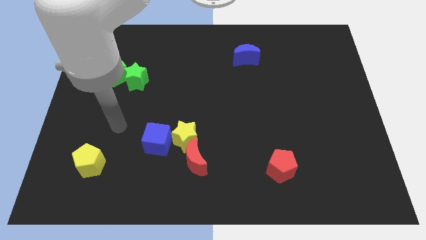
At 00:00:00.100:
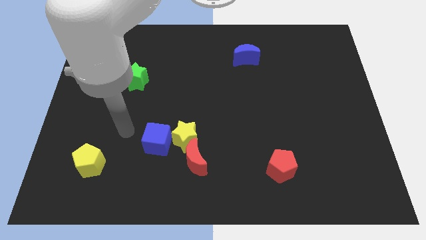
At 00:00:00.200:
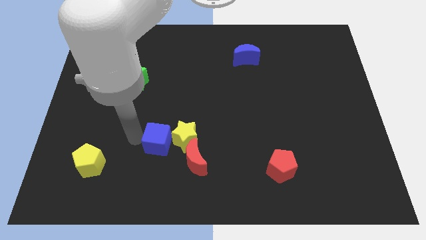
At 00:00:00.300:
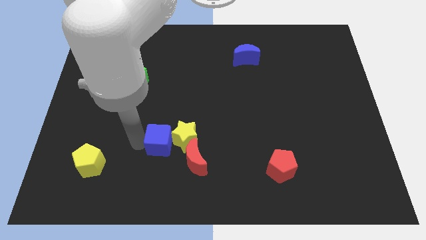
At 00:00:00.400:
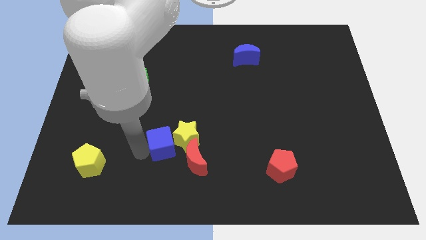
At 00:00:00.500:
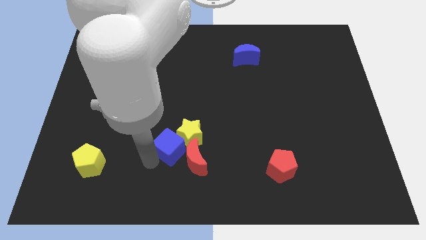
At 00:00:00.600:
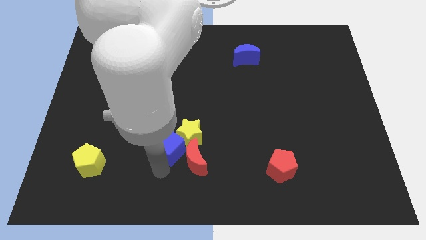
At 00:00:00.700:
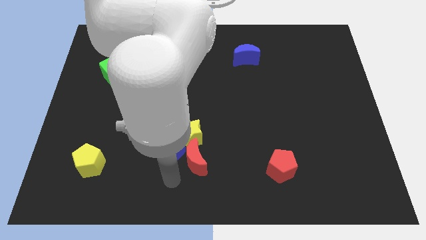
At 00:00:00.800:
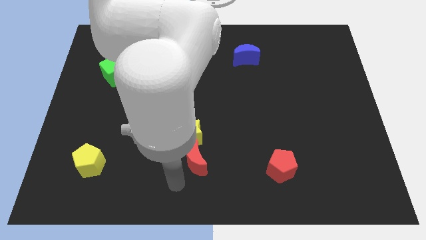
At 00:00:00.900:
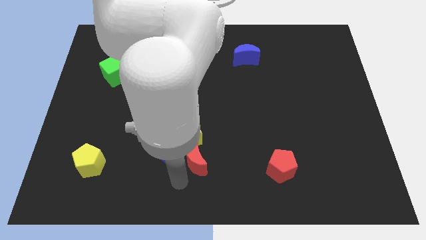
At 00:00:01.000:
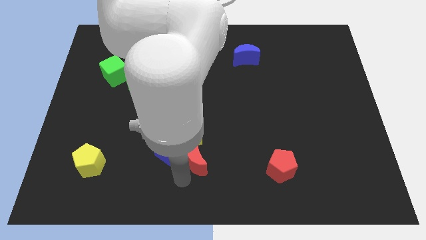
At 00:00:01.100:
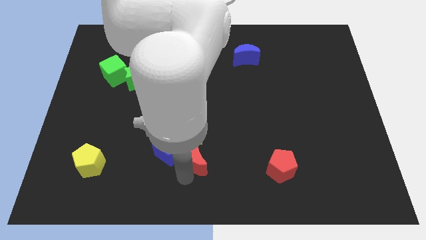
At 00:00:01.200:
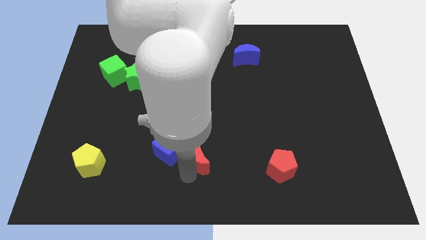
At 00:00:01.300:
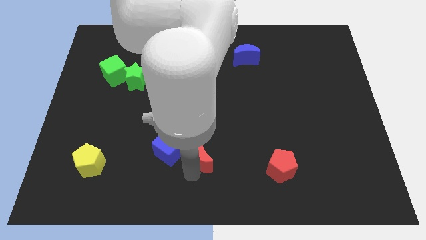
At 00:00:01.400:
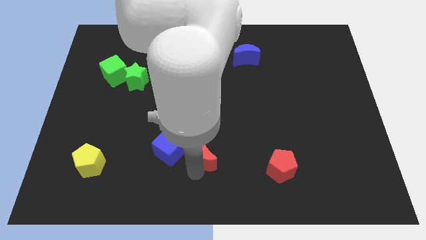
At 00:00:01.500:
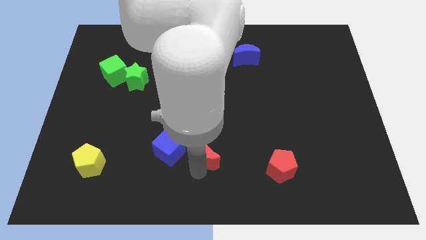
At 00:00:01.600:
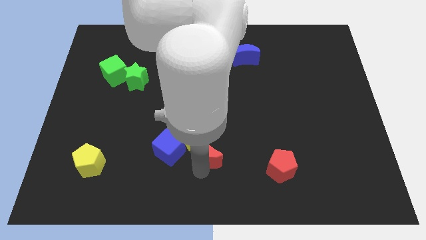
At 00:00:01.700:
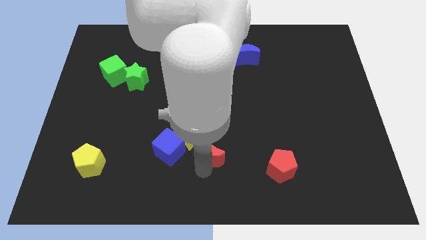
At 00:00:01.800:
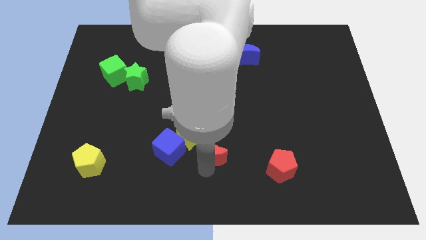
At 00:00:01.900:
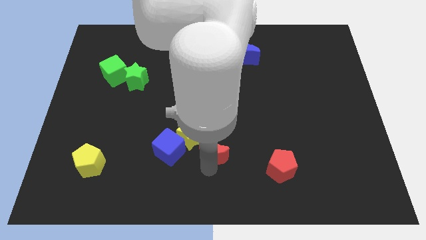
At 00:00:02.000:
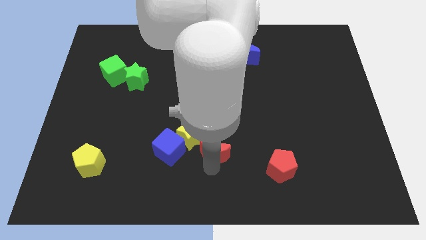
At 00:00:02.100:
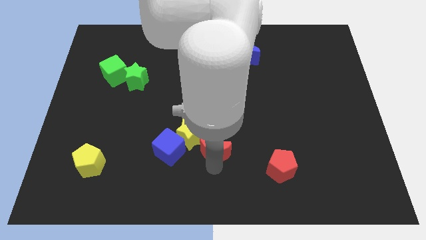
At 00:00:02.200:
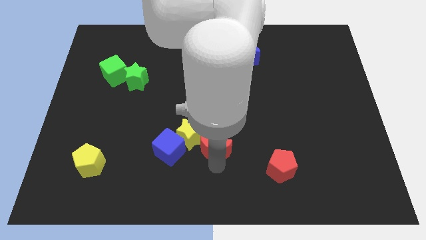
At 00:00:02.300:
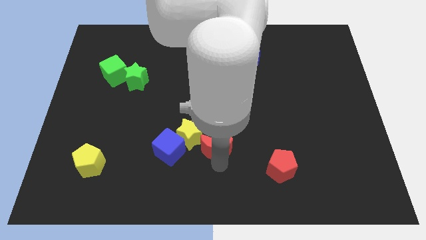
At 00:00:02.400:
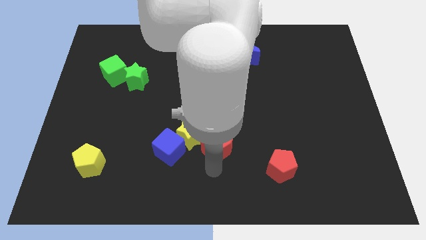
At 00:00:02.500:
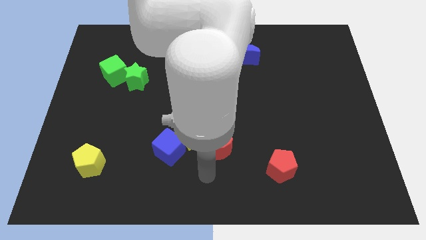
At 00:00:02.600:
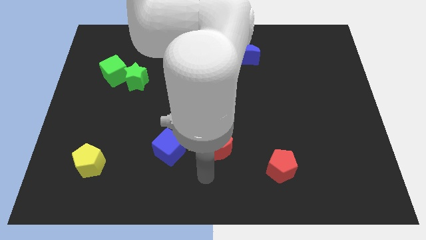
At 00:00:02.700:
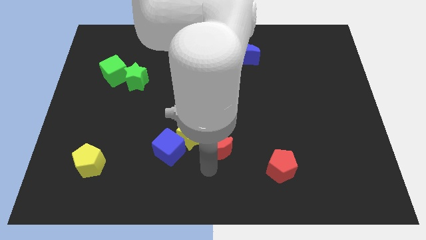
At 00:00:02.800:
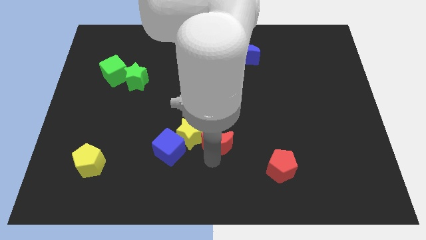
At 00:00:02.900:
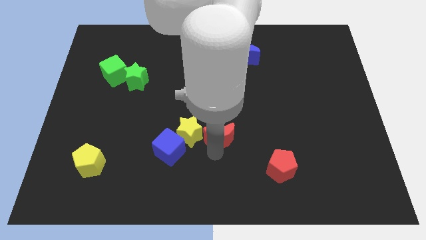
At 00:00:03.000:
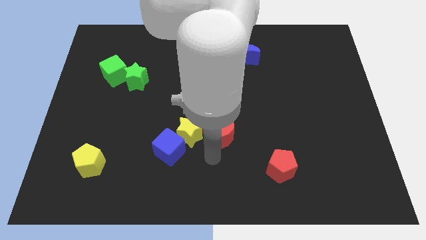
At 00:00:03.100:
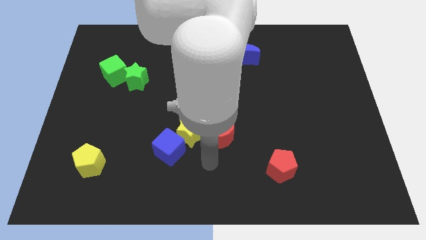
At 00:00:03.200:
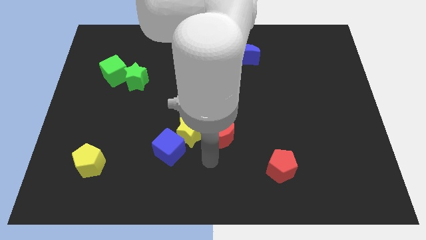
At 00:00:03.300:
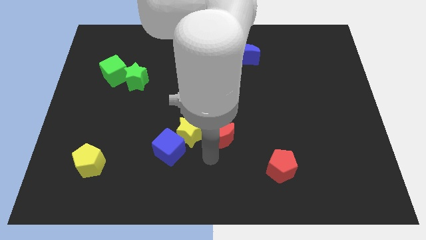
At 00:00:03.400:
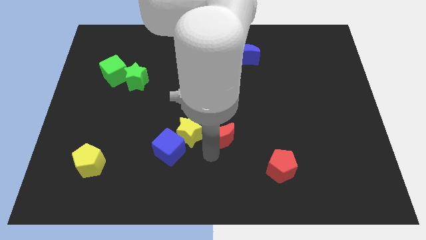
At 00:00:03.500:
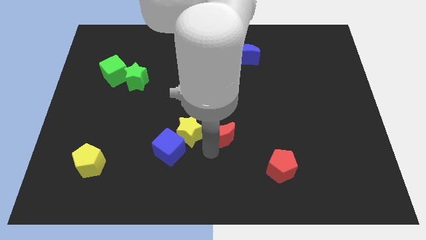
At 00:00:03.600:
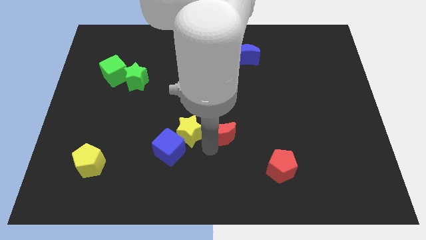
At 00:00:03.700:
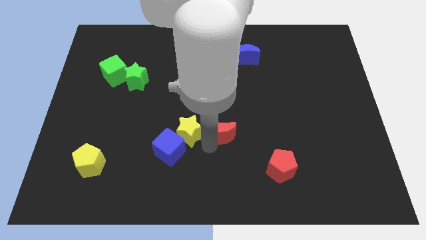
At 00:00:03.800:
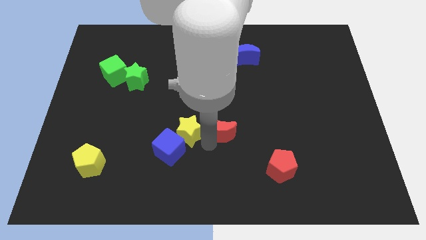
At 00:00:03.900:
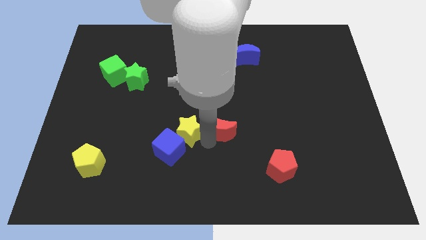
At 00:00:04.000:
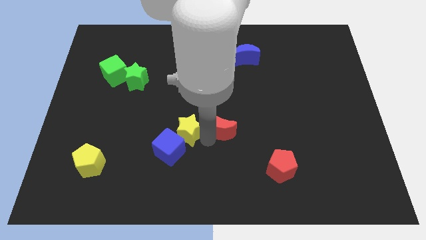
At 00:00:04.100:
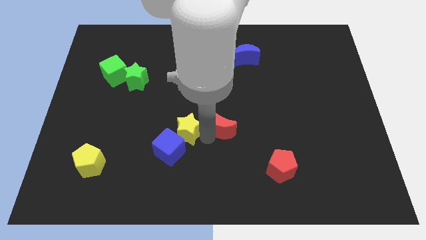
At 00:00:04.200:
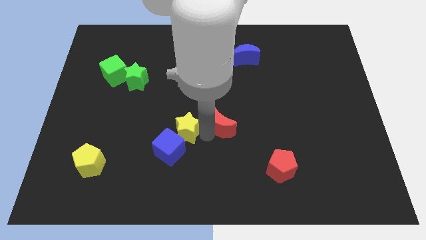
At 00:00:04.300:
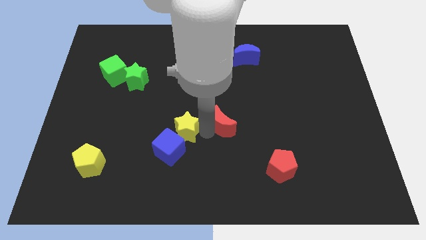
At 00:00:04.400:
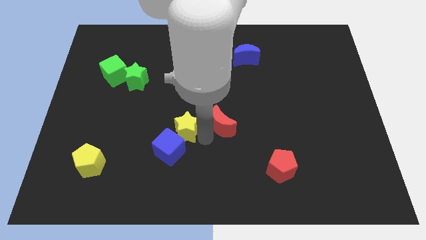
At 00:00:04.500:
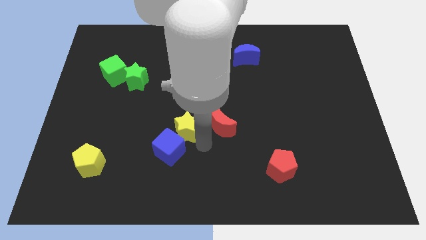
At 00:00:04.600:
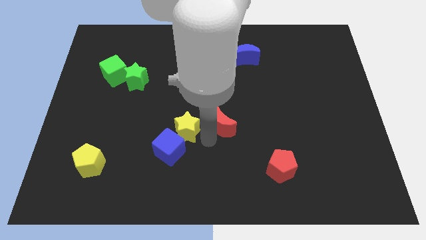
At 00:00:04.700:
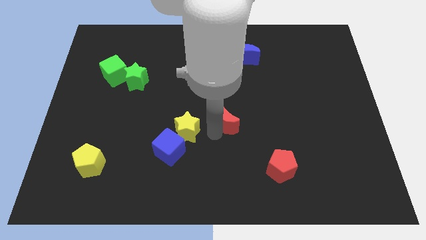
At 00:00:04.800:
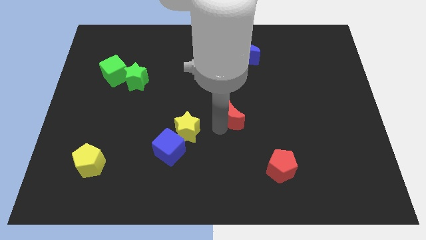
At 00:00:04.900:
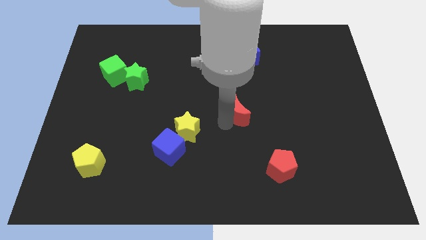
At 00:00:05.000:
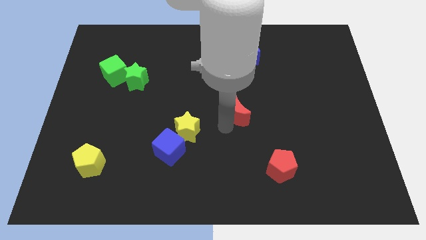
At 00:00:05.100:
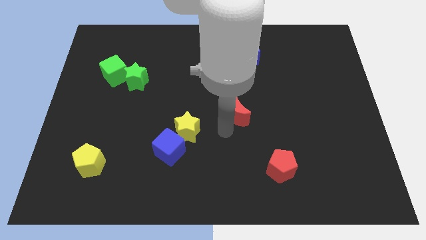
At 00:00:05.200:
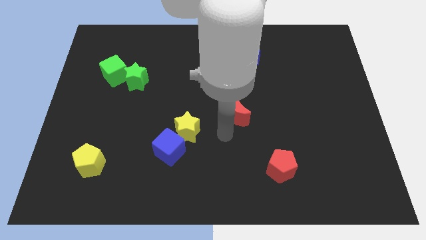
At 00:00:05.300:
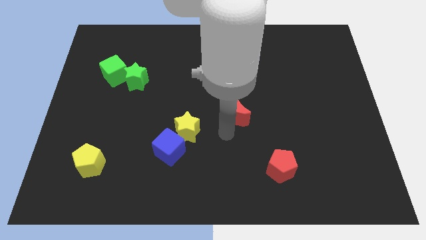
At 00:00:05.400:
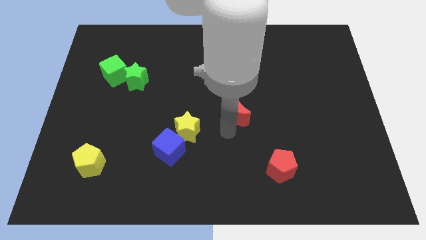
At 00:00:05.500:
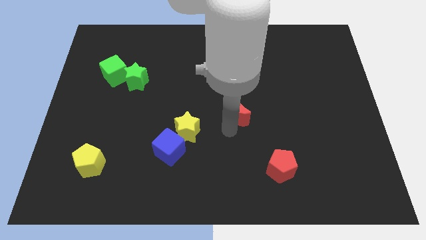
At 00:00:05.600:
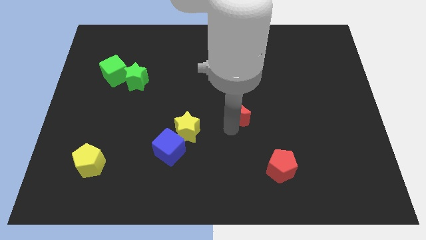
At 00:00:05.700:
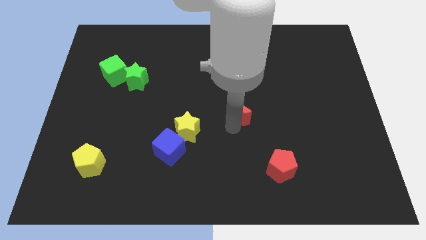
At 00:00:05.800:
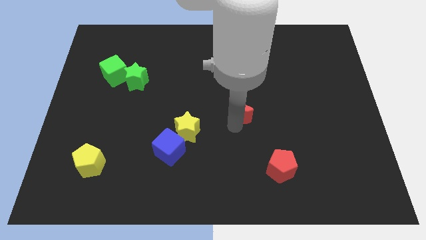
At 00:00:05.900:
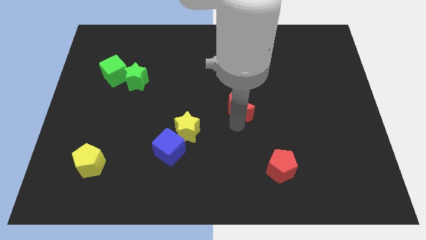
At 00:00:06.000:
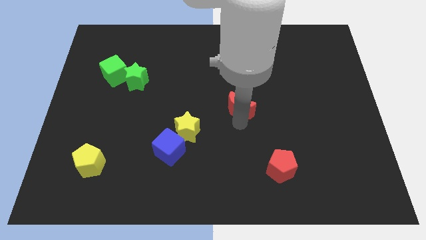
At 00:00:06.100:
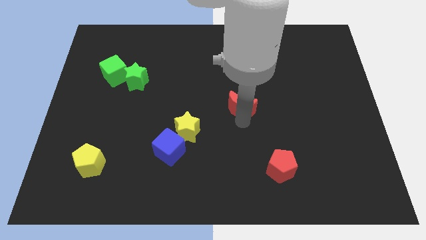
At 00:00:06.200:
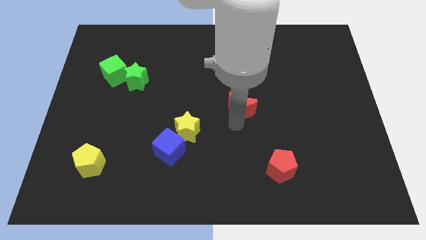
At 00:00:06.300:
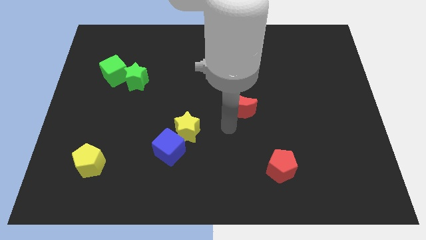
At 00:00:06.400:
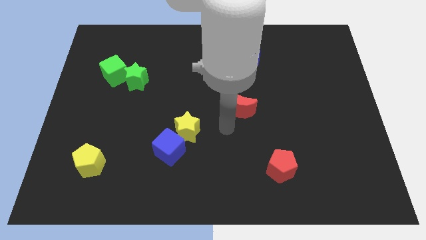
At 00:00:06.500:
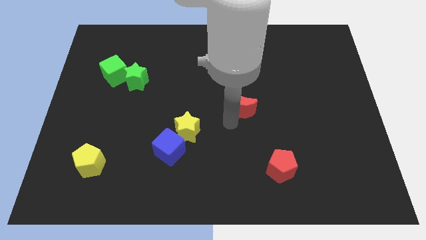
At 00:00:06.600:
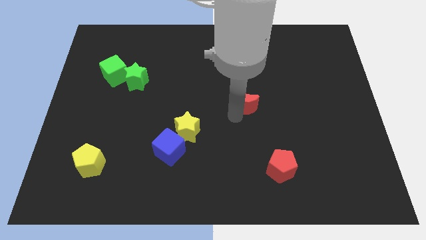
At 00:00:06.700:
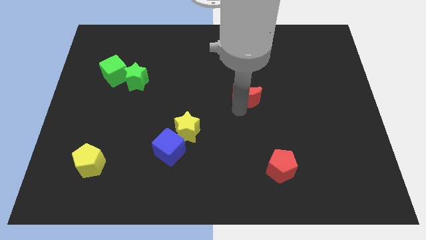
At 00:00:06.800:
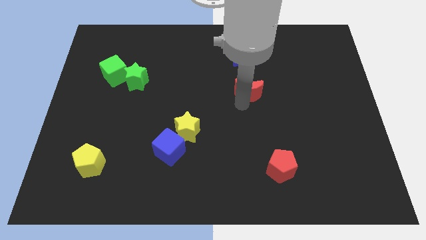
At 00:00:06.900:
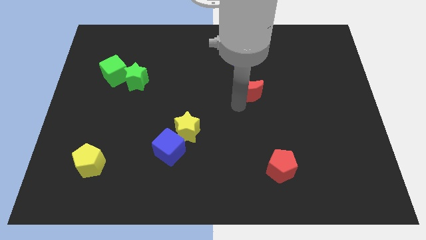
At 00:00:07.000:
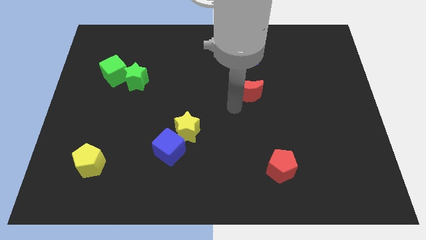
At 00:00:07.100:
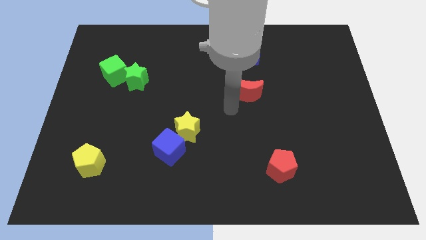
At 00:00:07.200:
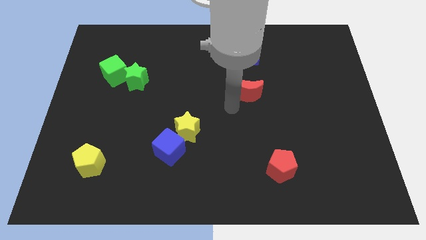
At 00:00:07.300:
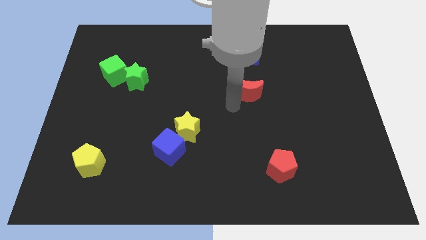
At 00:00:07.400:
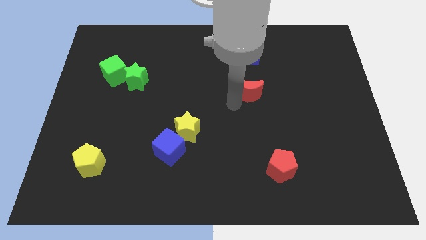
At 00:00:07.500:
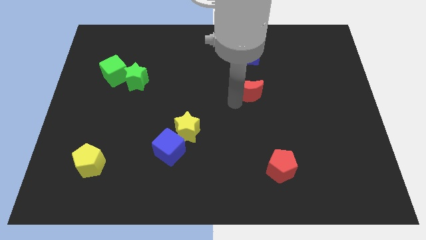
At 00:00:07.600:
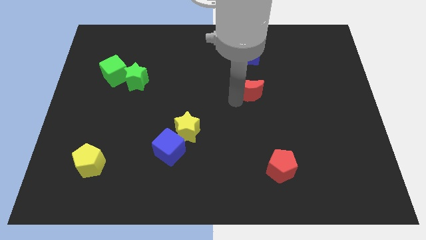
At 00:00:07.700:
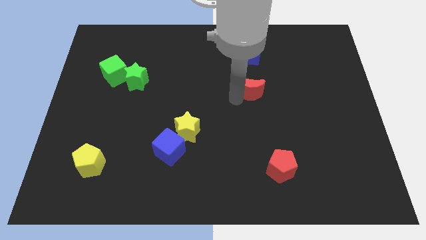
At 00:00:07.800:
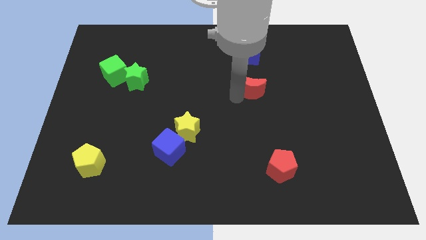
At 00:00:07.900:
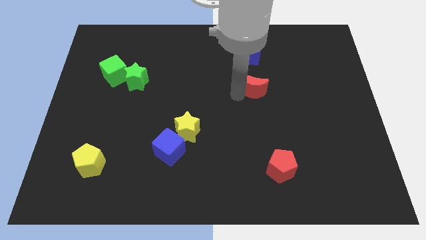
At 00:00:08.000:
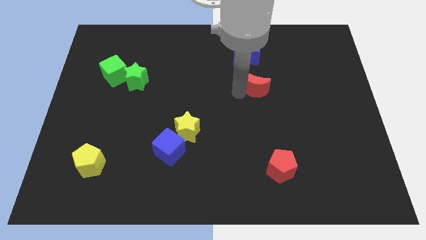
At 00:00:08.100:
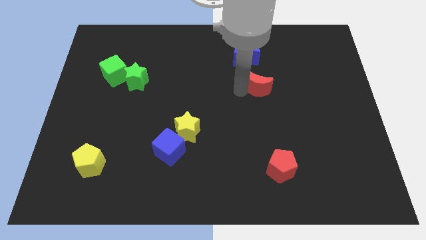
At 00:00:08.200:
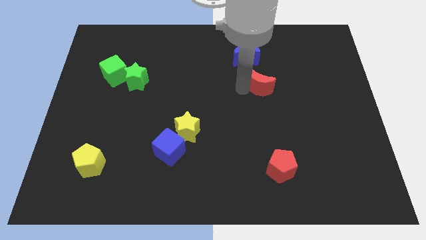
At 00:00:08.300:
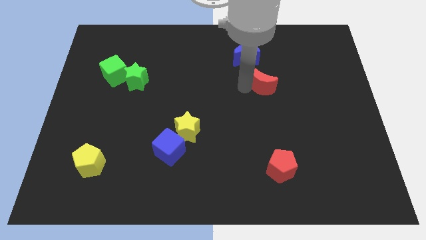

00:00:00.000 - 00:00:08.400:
move the red moon to the bottom right of the blue moon
